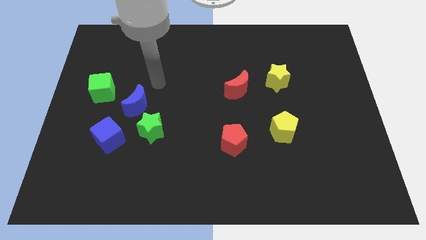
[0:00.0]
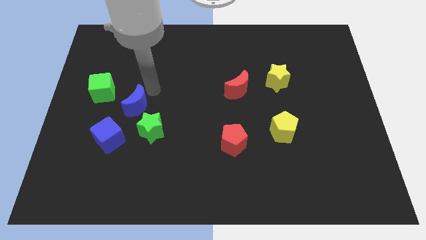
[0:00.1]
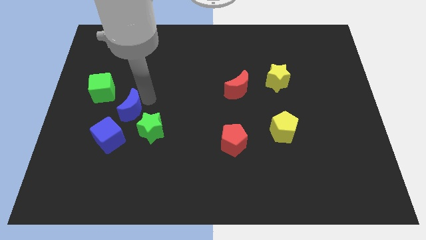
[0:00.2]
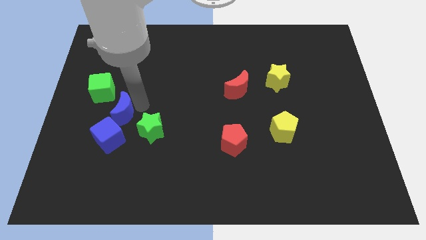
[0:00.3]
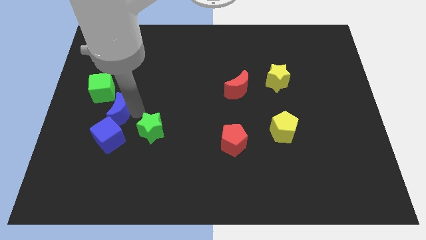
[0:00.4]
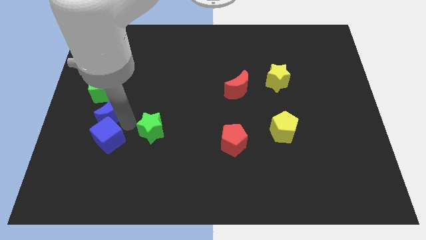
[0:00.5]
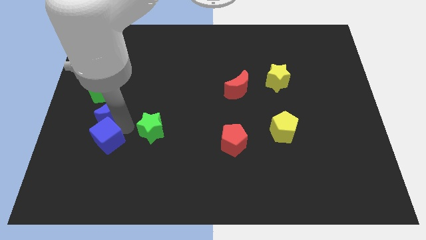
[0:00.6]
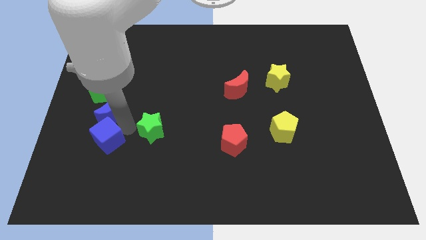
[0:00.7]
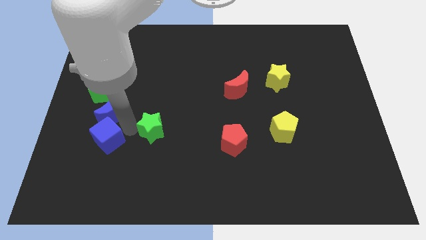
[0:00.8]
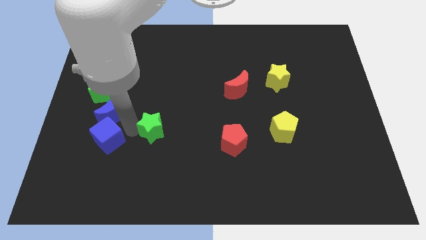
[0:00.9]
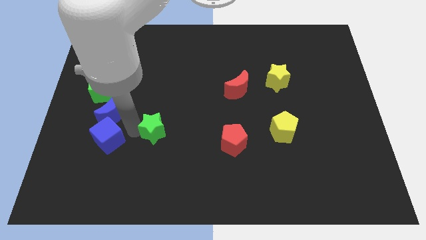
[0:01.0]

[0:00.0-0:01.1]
separate the green star from the blue moon and blue cube

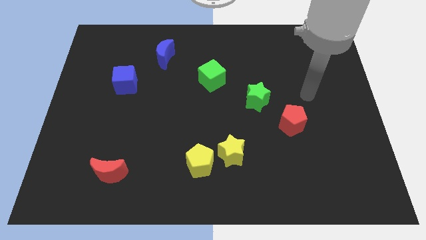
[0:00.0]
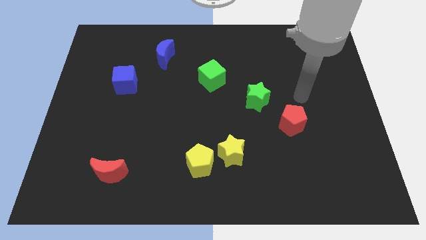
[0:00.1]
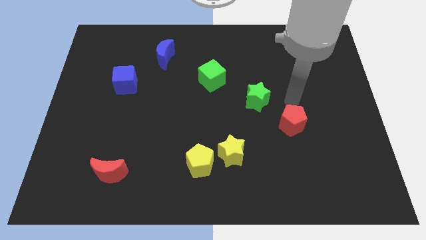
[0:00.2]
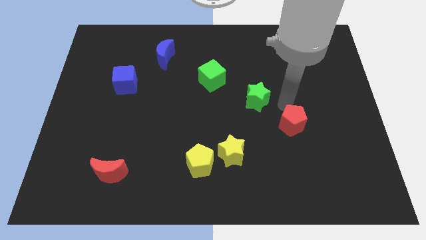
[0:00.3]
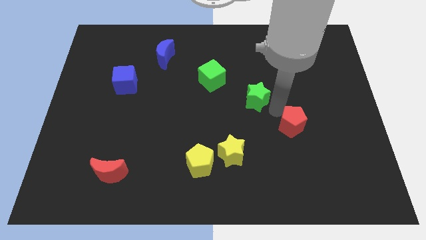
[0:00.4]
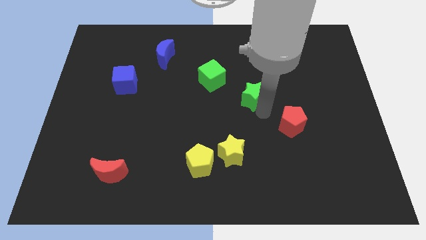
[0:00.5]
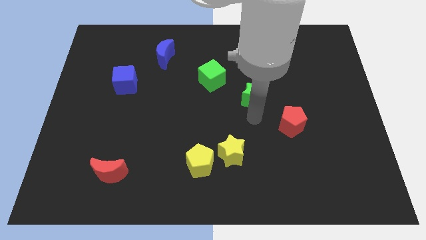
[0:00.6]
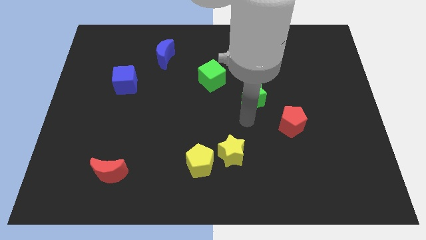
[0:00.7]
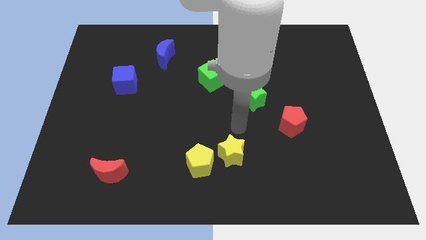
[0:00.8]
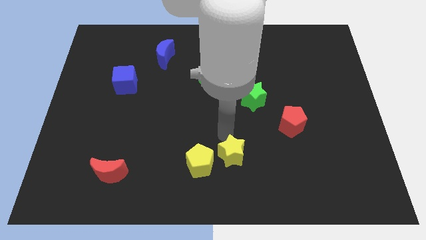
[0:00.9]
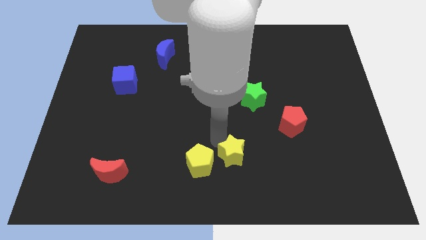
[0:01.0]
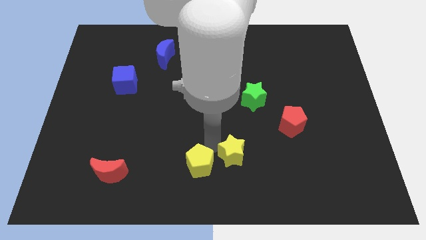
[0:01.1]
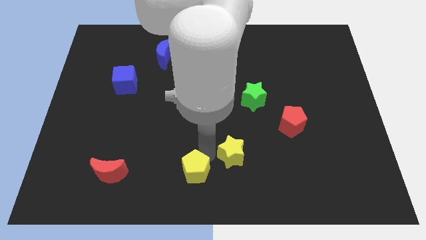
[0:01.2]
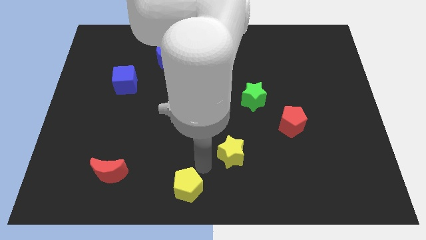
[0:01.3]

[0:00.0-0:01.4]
move the yellow star away from the yellow pentagon

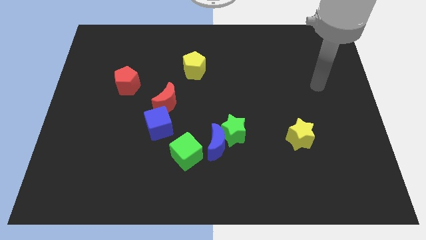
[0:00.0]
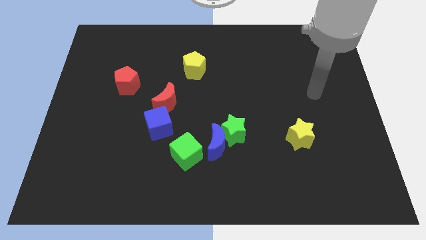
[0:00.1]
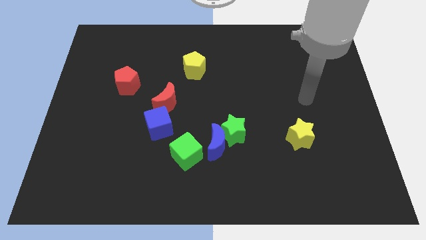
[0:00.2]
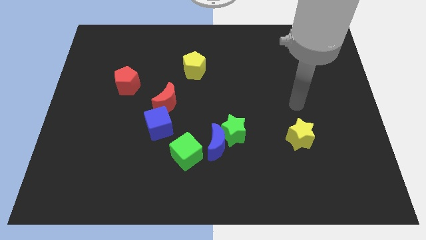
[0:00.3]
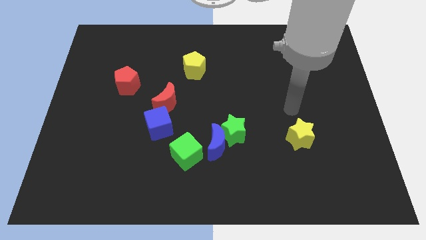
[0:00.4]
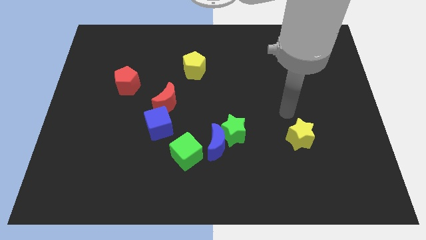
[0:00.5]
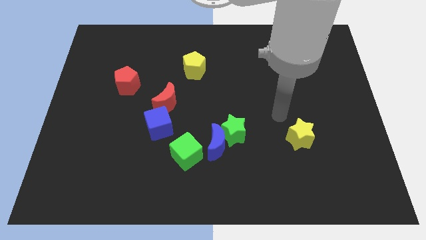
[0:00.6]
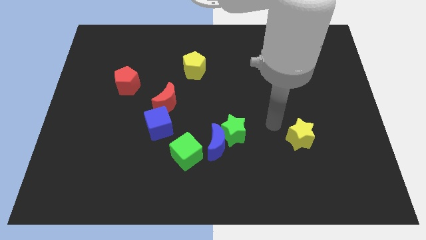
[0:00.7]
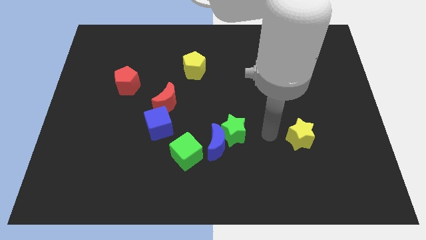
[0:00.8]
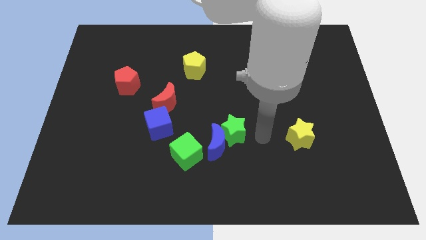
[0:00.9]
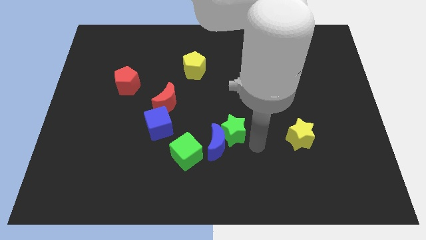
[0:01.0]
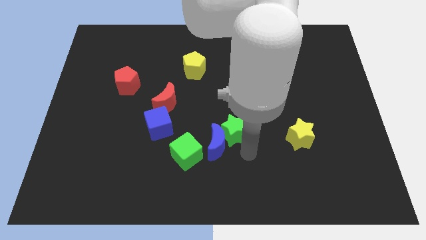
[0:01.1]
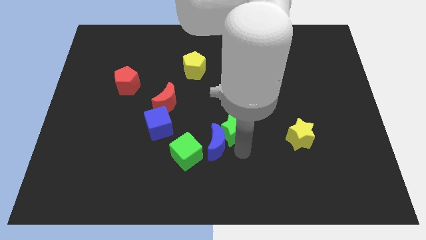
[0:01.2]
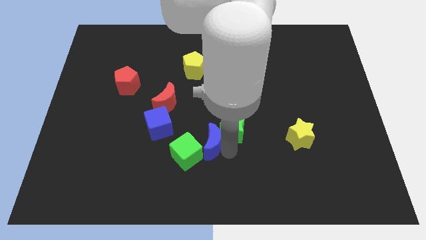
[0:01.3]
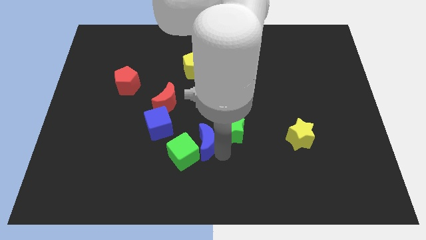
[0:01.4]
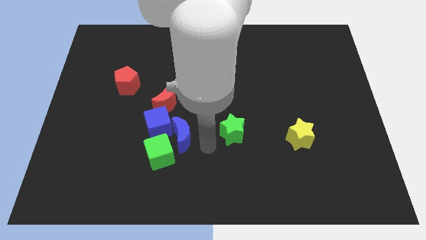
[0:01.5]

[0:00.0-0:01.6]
separate the green star from the blue moon

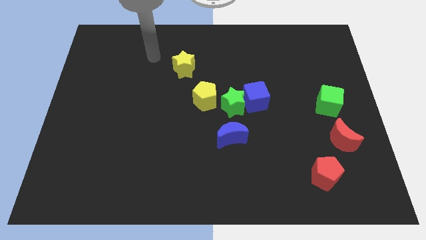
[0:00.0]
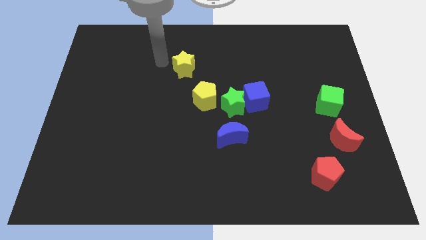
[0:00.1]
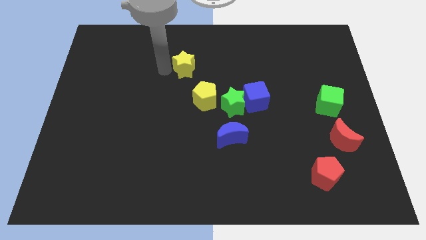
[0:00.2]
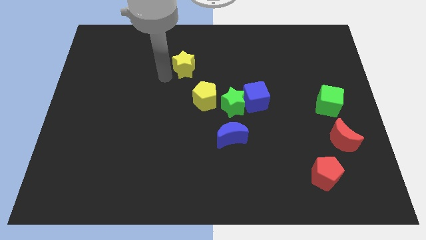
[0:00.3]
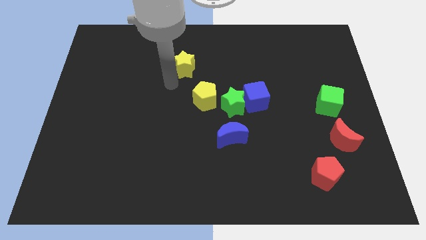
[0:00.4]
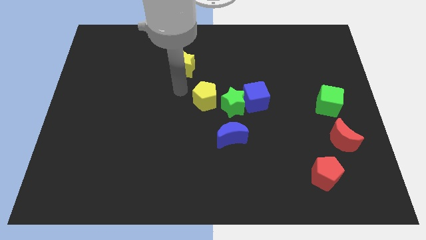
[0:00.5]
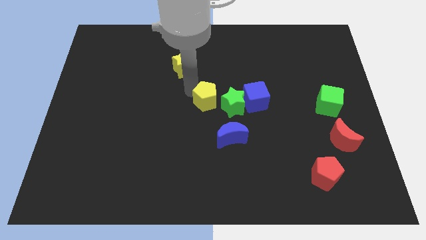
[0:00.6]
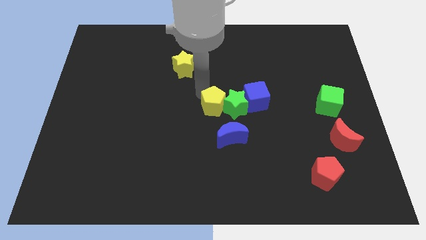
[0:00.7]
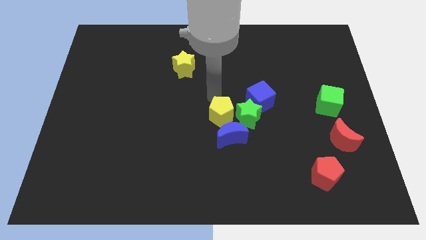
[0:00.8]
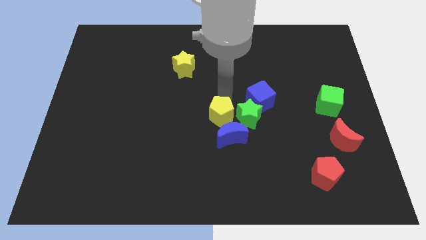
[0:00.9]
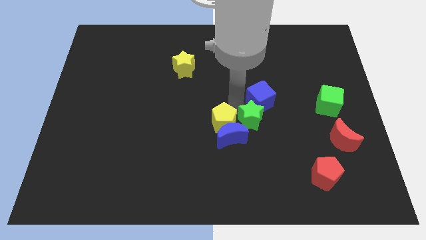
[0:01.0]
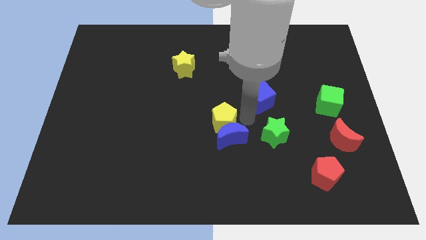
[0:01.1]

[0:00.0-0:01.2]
separate the blue cube from the green star

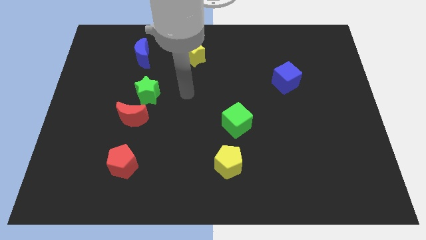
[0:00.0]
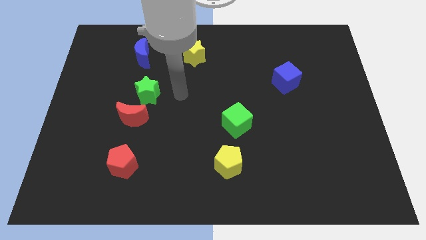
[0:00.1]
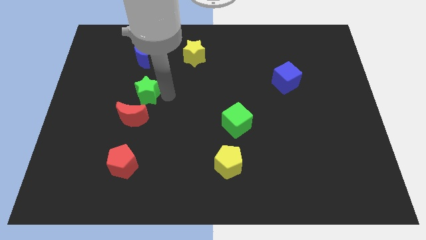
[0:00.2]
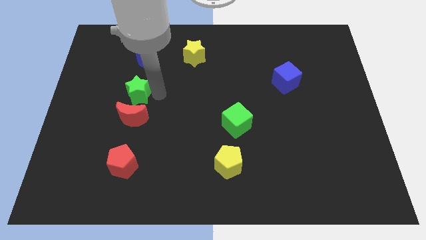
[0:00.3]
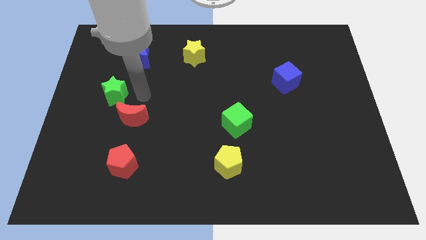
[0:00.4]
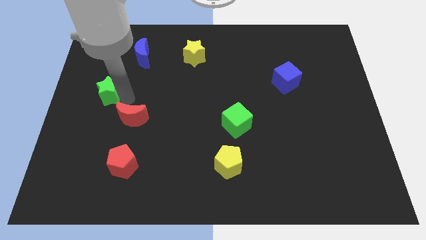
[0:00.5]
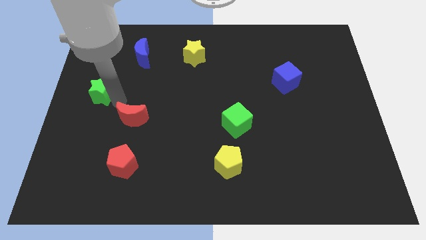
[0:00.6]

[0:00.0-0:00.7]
separate the red moon from the green star

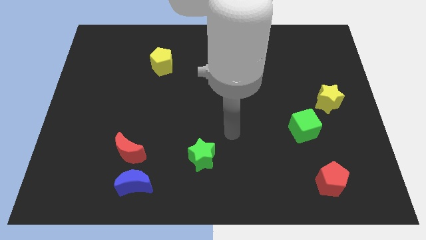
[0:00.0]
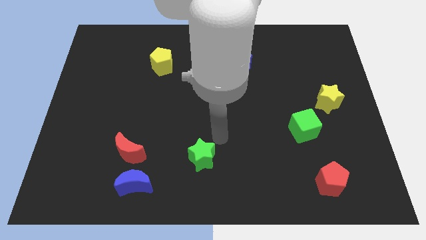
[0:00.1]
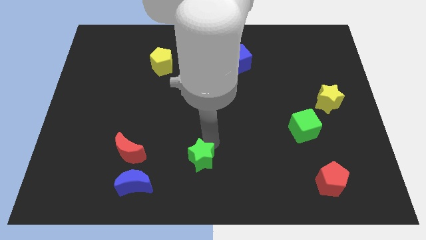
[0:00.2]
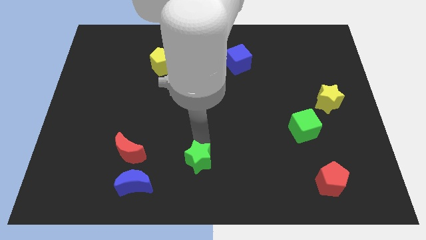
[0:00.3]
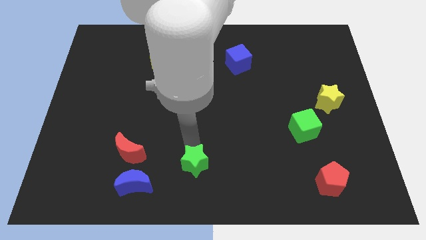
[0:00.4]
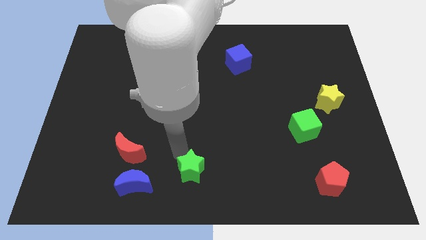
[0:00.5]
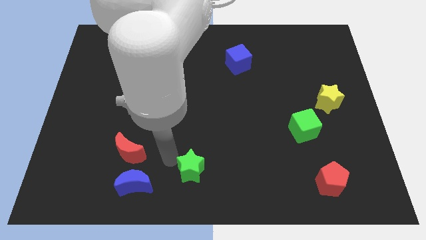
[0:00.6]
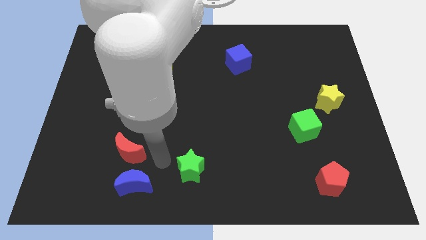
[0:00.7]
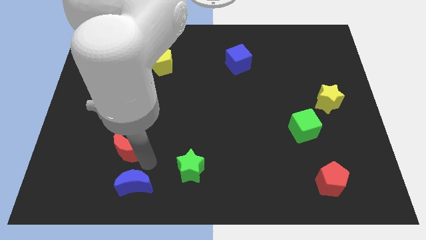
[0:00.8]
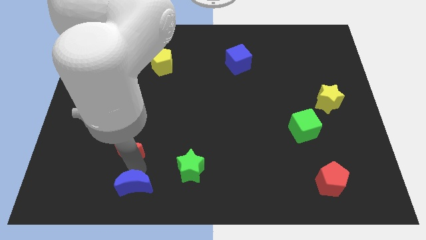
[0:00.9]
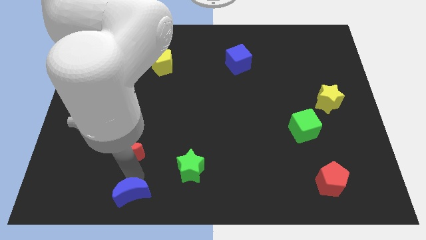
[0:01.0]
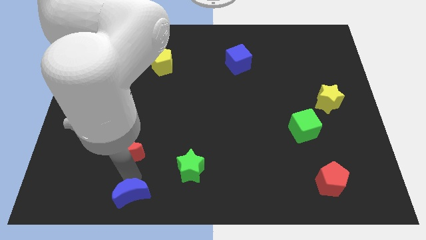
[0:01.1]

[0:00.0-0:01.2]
move the red moon away from the blue moon

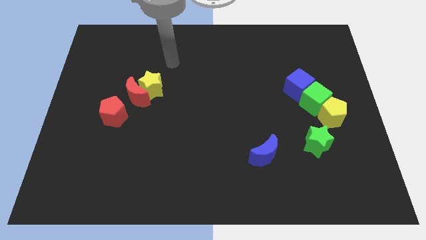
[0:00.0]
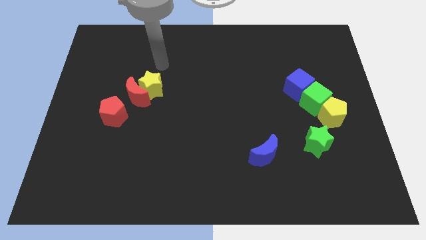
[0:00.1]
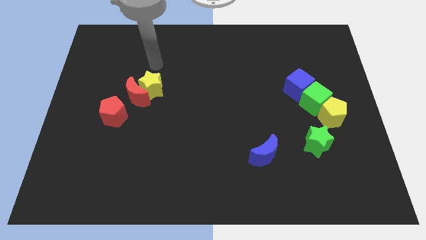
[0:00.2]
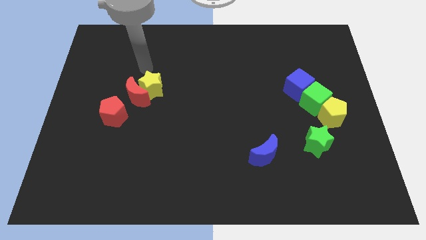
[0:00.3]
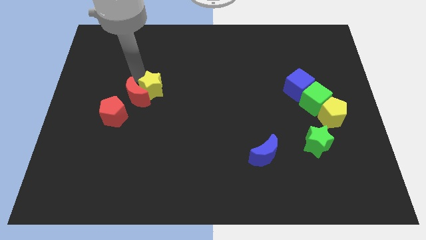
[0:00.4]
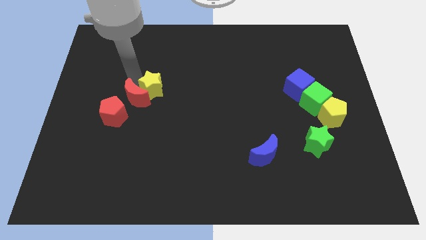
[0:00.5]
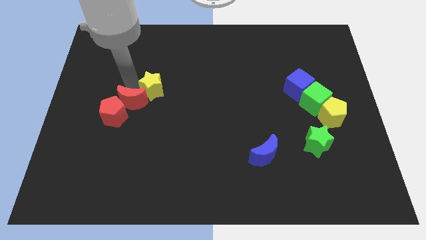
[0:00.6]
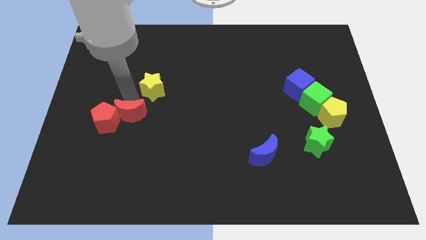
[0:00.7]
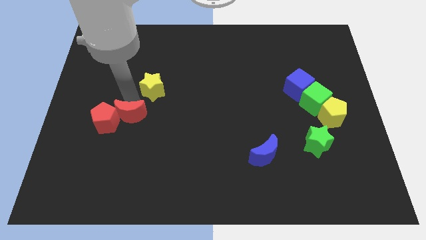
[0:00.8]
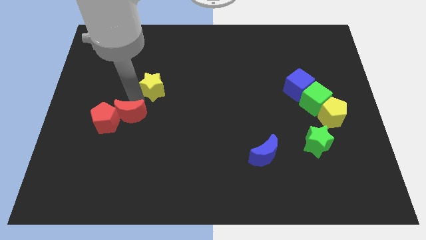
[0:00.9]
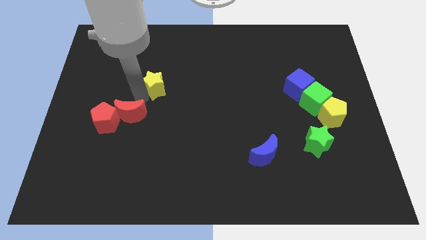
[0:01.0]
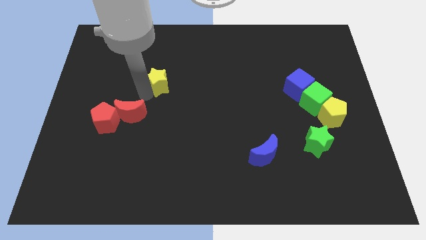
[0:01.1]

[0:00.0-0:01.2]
separate the yellow star from the red moon

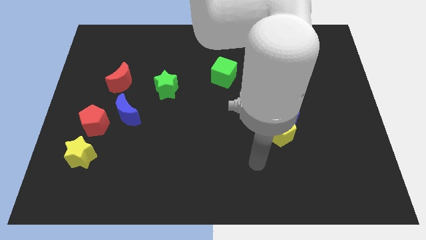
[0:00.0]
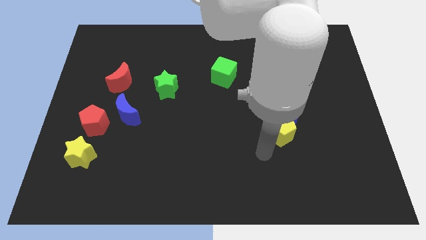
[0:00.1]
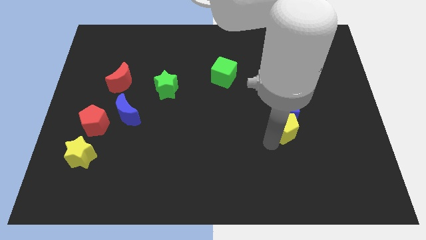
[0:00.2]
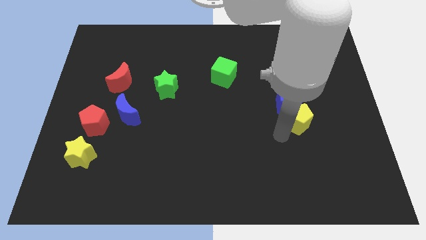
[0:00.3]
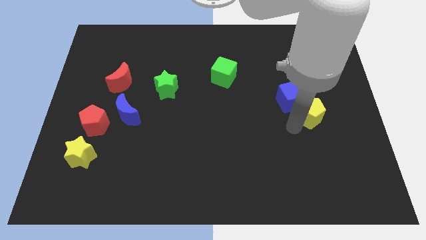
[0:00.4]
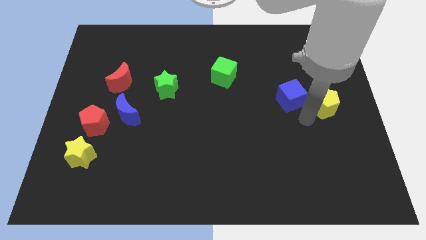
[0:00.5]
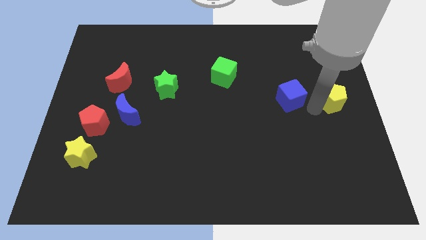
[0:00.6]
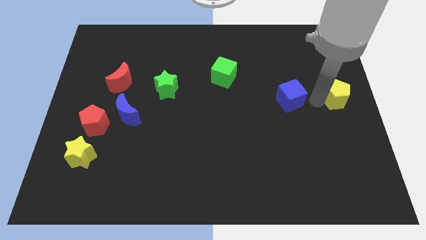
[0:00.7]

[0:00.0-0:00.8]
pull the blue cube apart from the yellow pentagon
